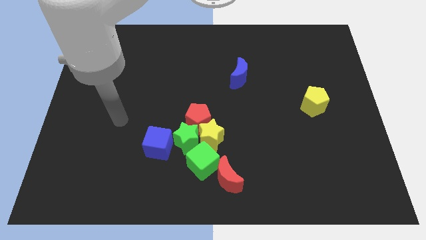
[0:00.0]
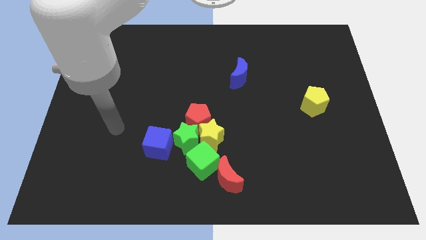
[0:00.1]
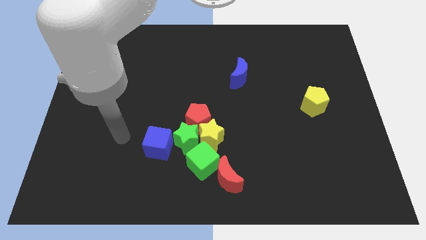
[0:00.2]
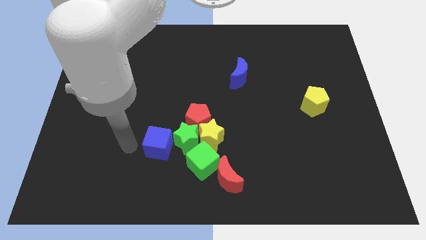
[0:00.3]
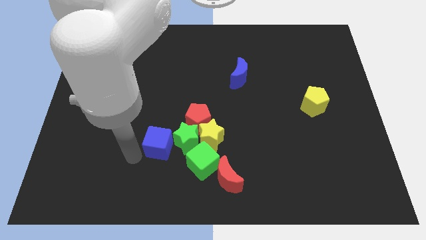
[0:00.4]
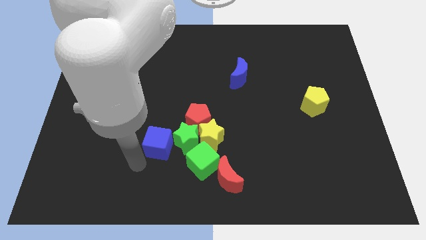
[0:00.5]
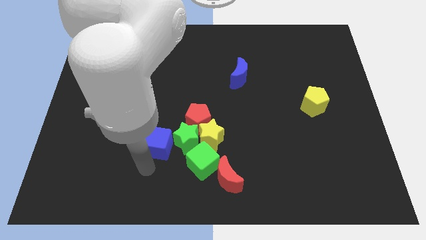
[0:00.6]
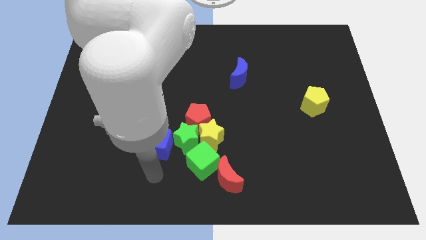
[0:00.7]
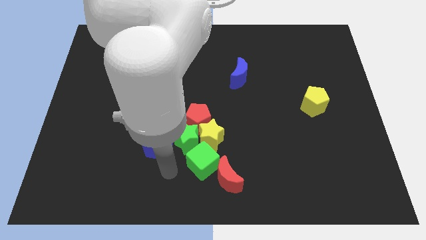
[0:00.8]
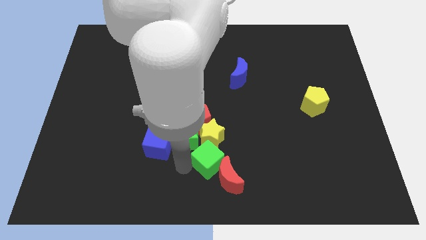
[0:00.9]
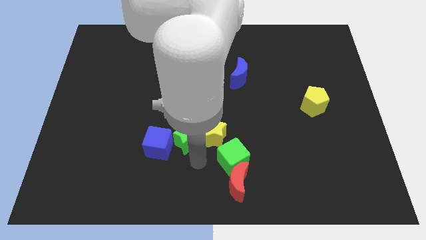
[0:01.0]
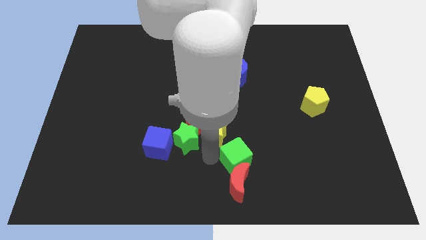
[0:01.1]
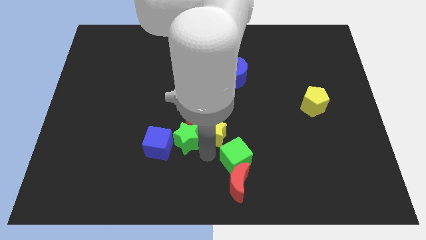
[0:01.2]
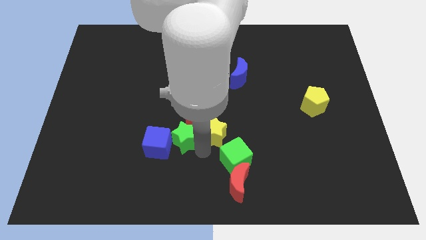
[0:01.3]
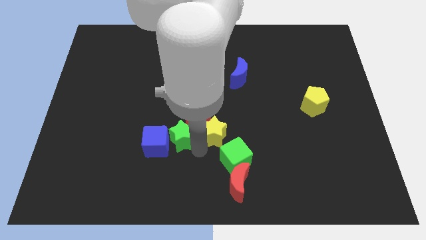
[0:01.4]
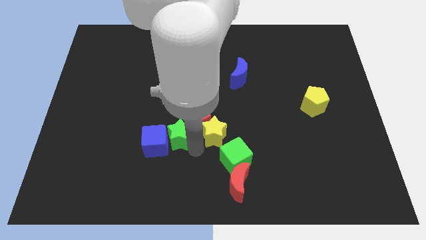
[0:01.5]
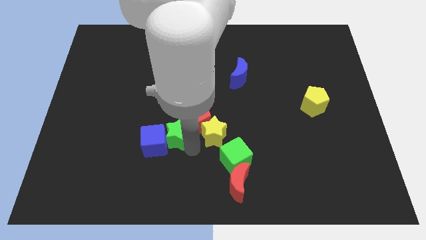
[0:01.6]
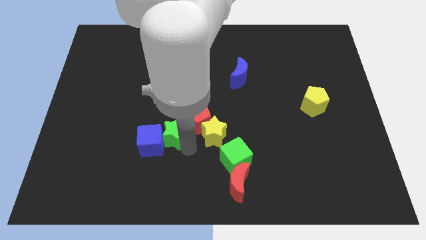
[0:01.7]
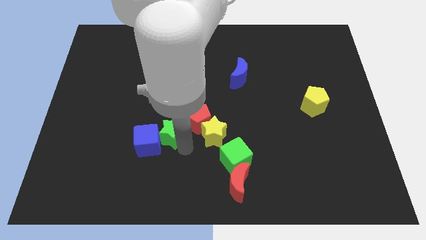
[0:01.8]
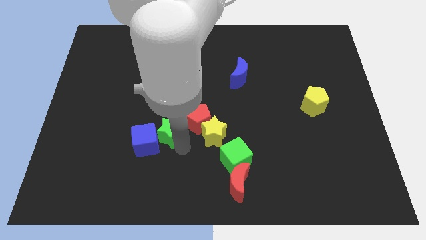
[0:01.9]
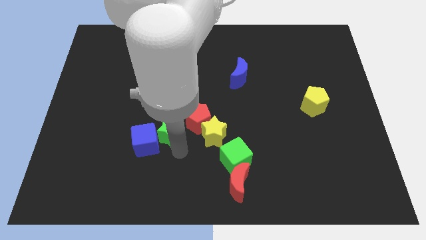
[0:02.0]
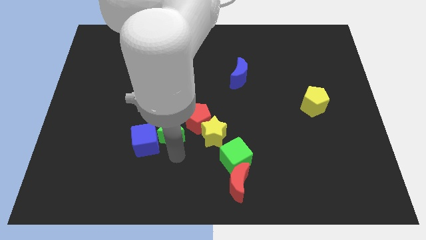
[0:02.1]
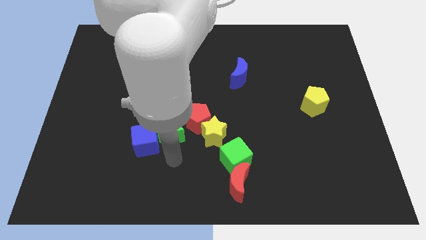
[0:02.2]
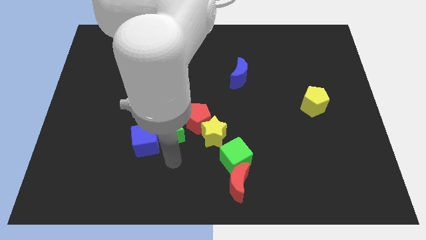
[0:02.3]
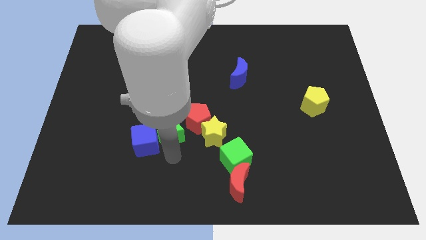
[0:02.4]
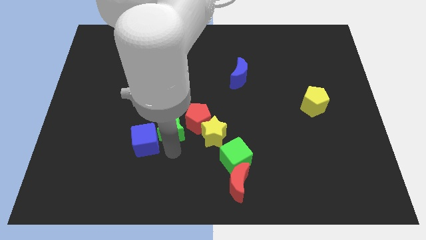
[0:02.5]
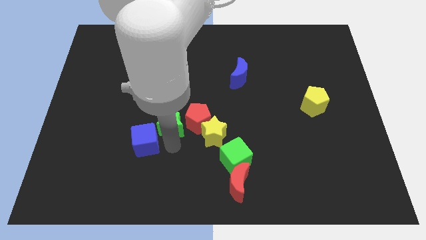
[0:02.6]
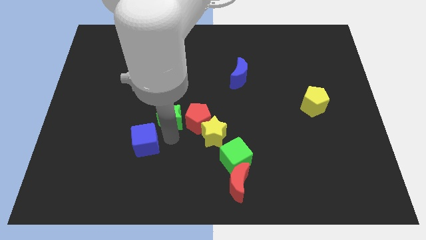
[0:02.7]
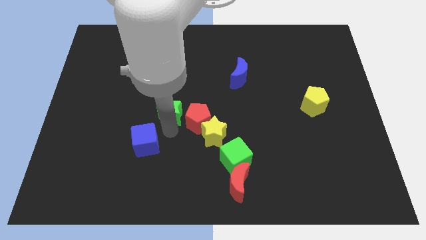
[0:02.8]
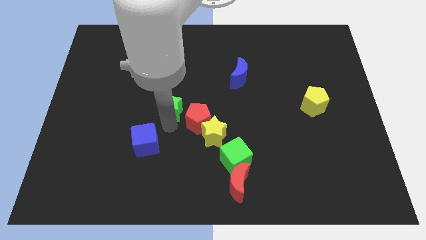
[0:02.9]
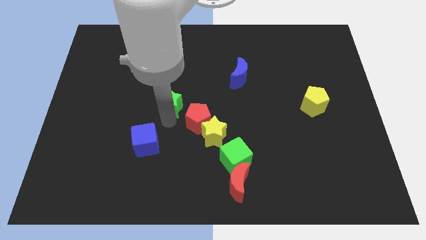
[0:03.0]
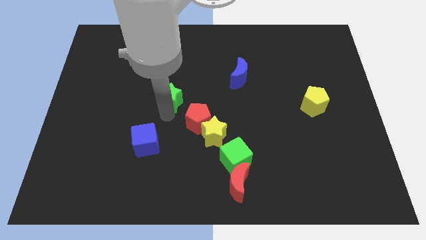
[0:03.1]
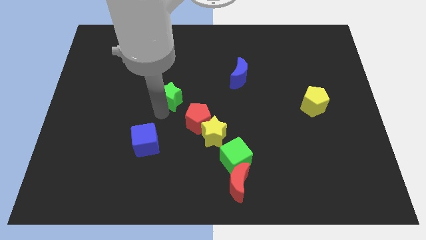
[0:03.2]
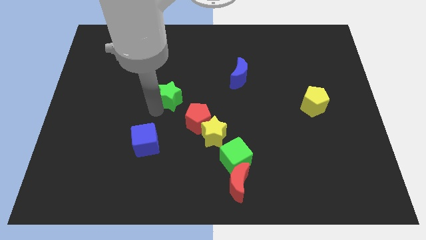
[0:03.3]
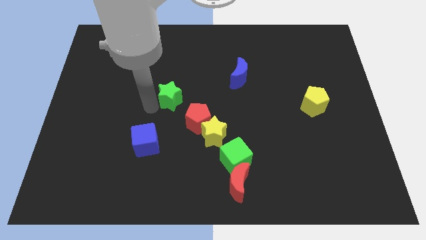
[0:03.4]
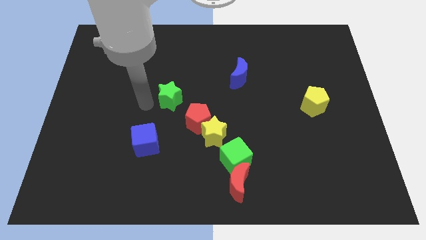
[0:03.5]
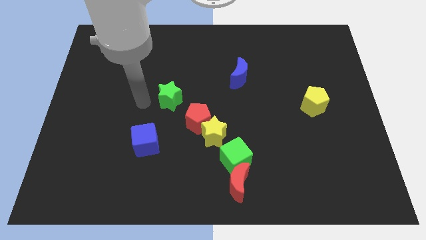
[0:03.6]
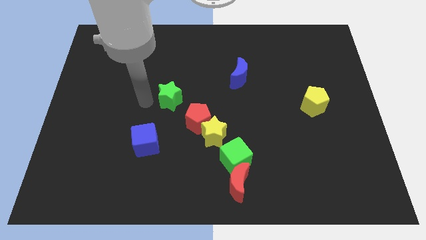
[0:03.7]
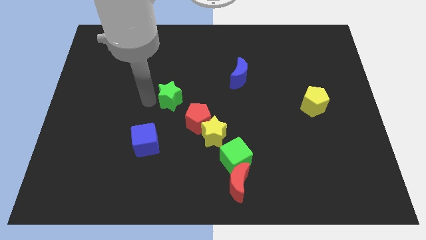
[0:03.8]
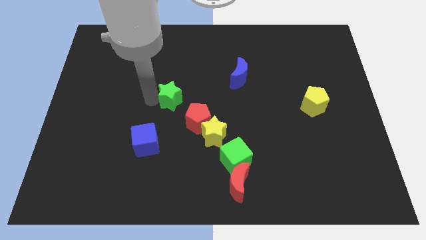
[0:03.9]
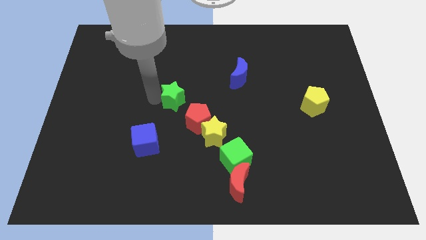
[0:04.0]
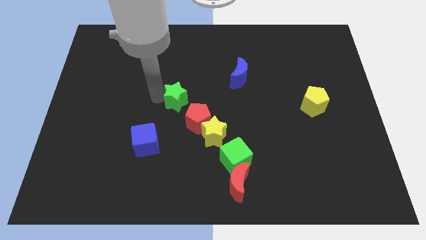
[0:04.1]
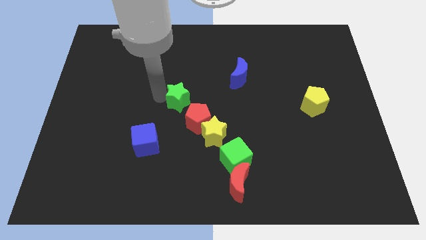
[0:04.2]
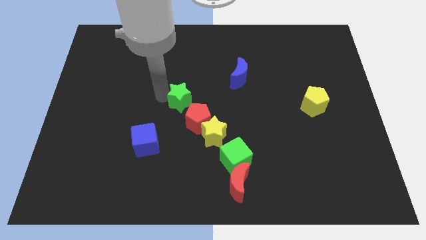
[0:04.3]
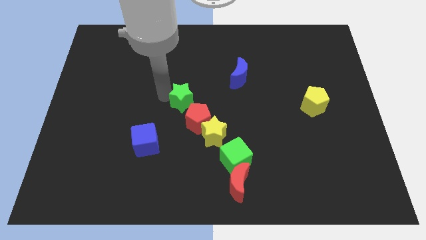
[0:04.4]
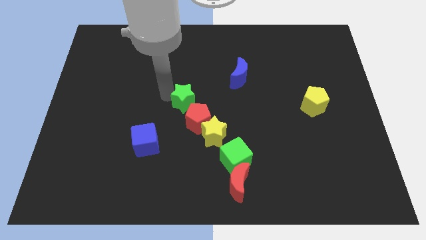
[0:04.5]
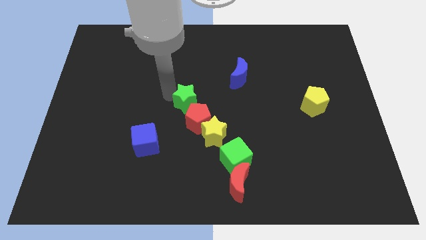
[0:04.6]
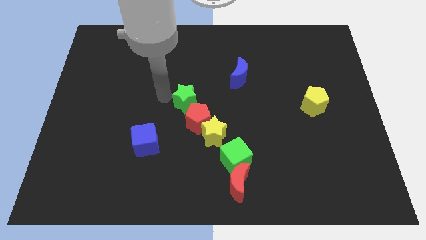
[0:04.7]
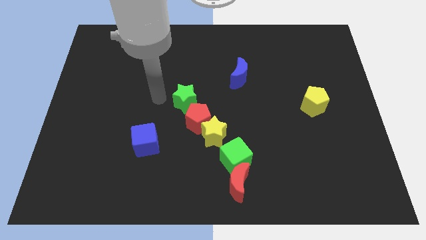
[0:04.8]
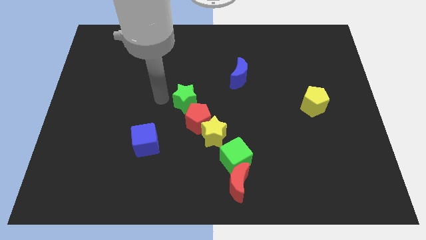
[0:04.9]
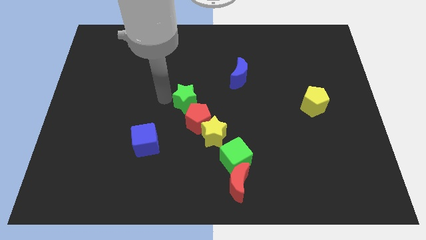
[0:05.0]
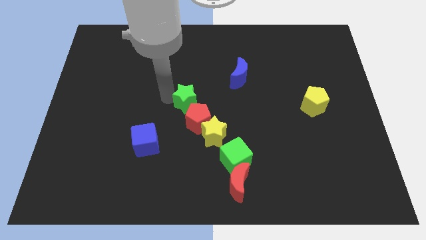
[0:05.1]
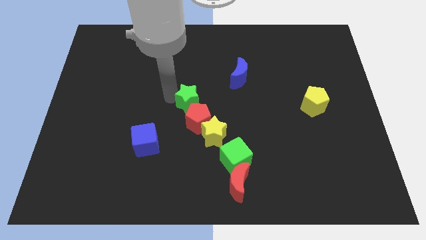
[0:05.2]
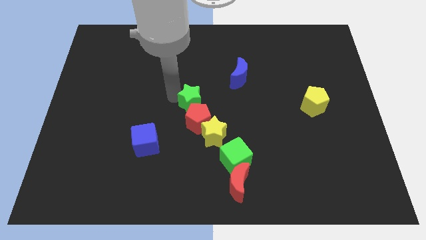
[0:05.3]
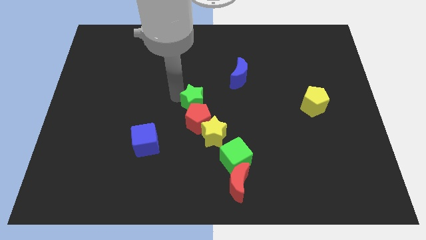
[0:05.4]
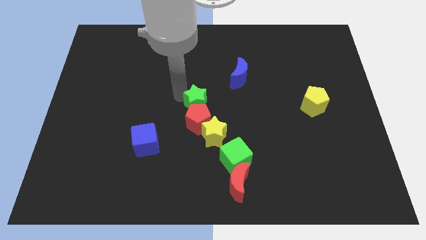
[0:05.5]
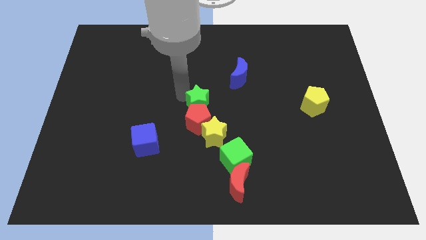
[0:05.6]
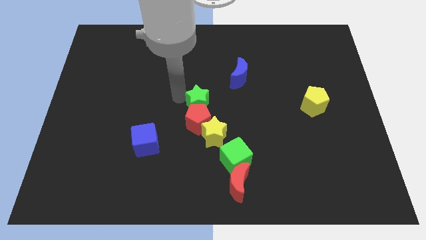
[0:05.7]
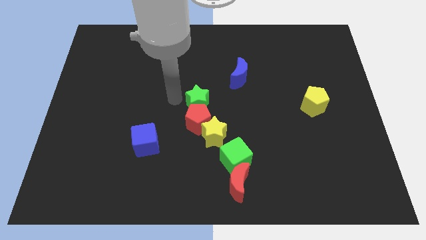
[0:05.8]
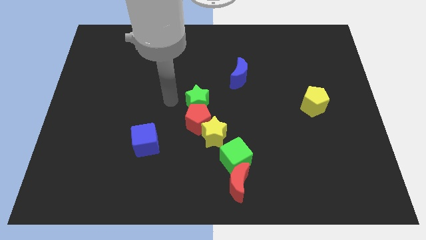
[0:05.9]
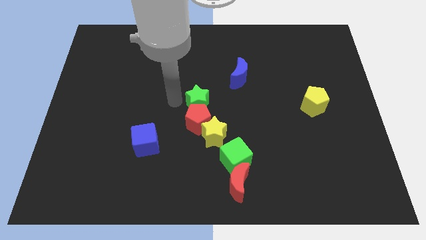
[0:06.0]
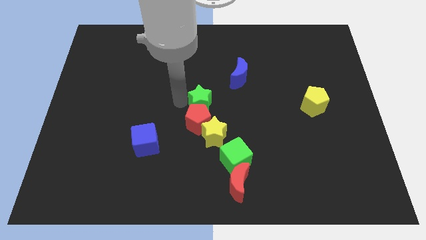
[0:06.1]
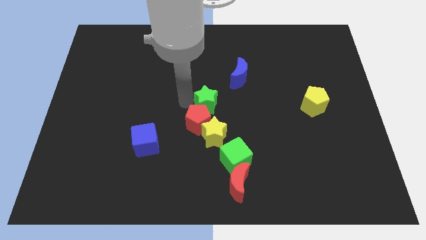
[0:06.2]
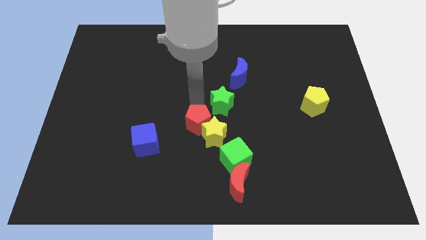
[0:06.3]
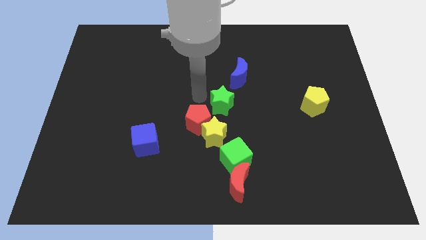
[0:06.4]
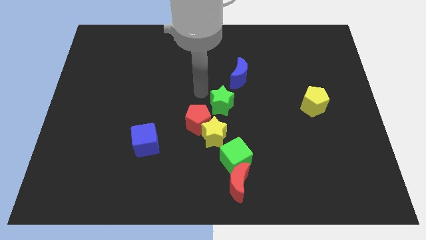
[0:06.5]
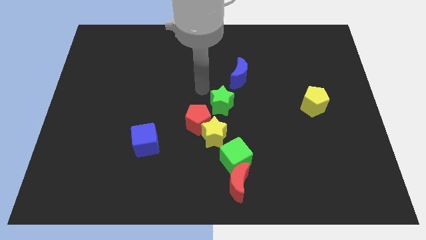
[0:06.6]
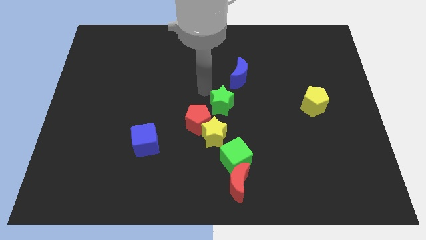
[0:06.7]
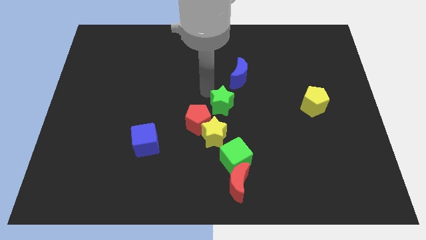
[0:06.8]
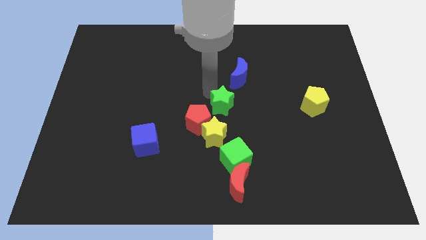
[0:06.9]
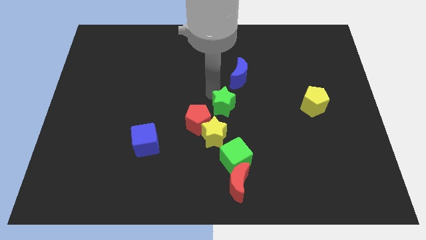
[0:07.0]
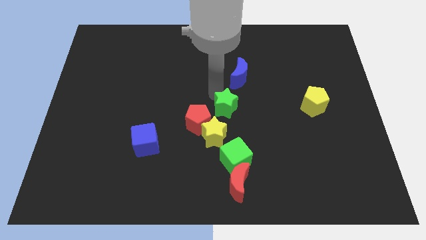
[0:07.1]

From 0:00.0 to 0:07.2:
move the green star to the right side of the red pentagon
